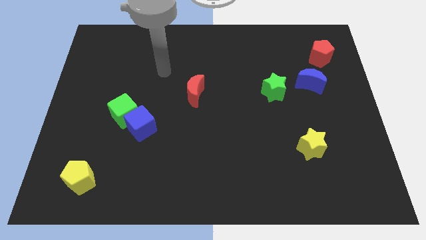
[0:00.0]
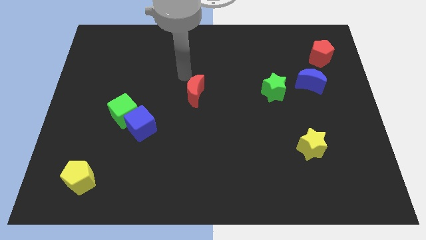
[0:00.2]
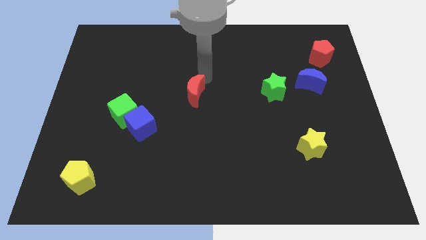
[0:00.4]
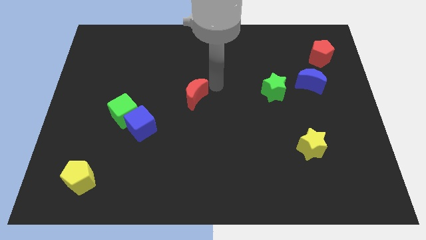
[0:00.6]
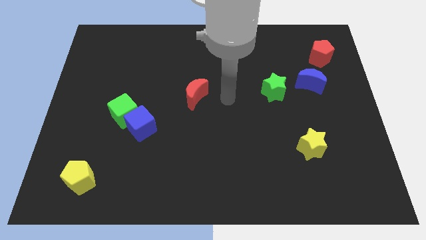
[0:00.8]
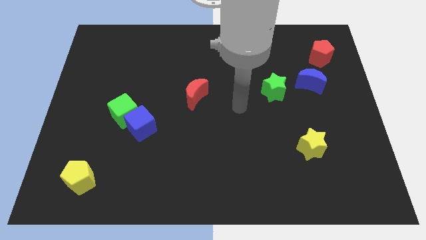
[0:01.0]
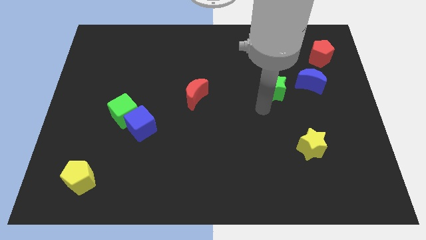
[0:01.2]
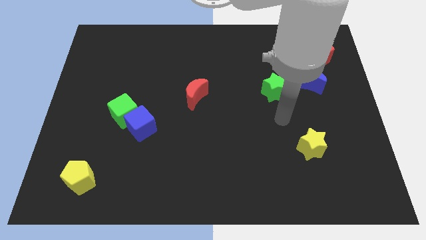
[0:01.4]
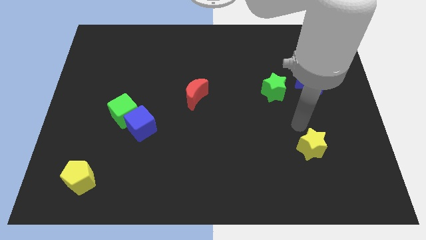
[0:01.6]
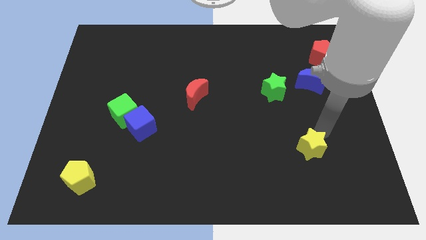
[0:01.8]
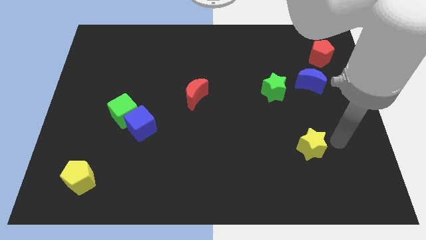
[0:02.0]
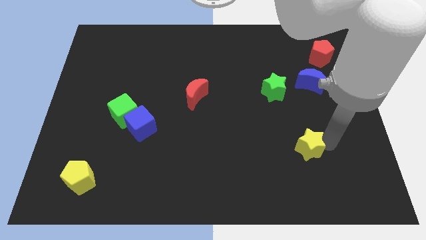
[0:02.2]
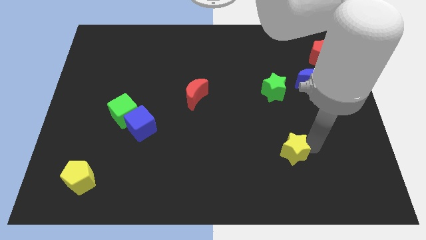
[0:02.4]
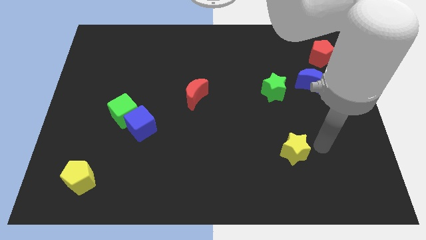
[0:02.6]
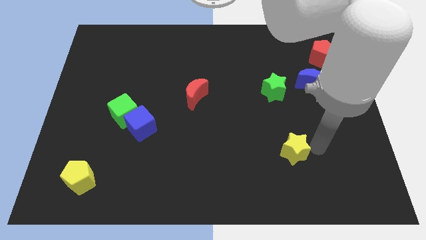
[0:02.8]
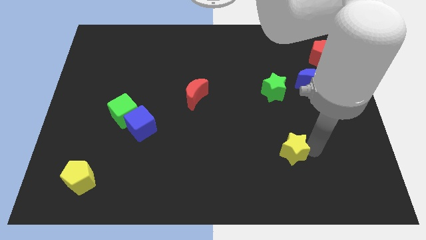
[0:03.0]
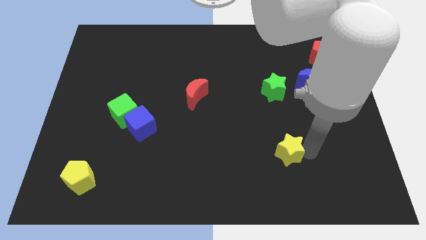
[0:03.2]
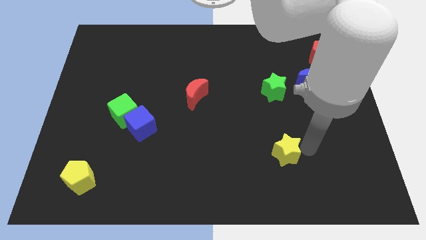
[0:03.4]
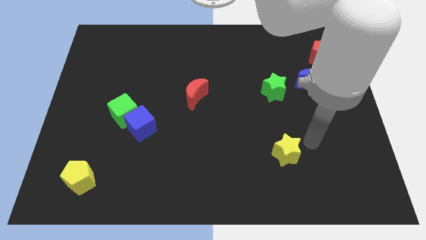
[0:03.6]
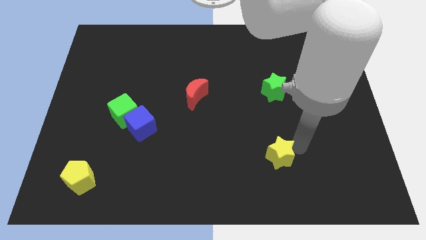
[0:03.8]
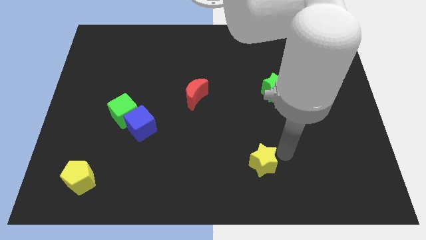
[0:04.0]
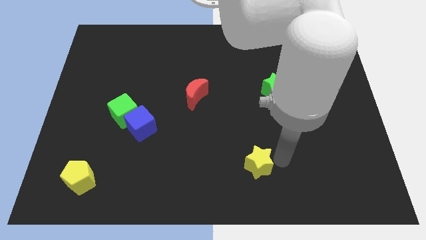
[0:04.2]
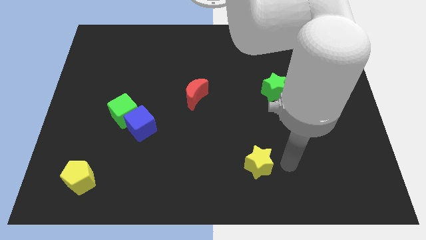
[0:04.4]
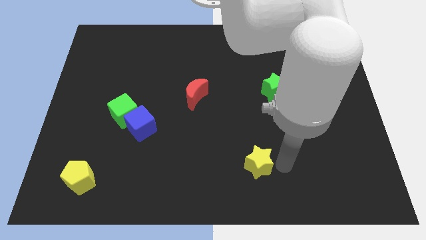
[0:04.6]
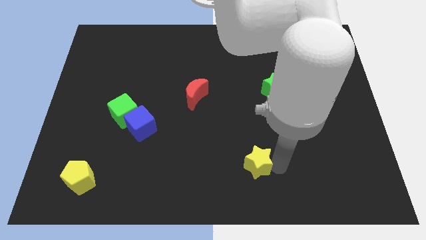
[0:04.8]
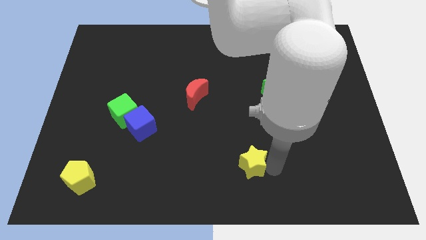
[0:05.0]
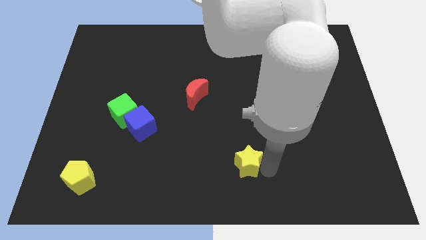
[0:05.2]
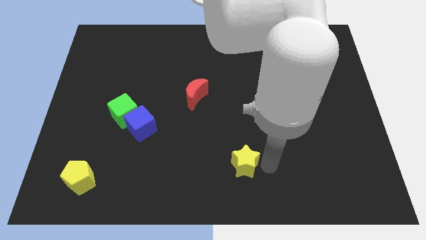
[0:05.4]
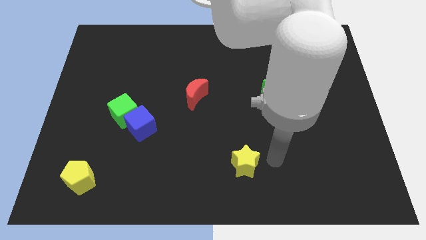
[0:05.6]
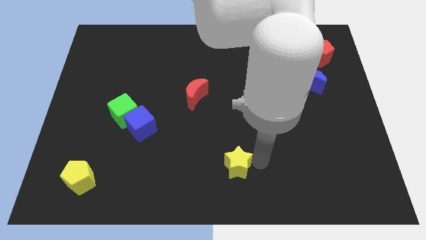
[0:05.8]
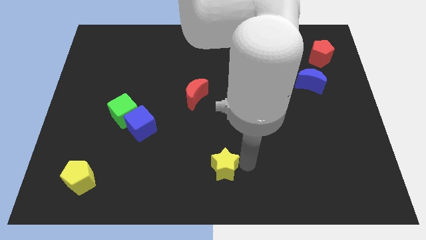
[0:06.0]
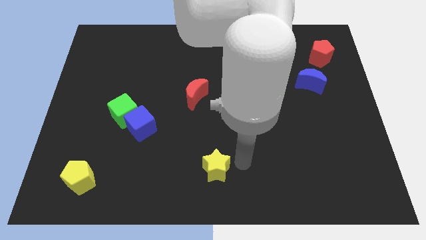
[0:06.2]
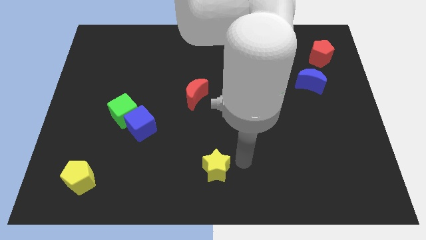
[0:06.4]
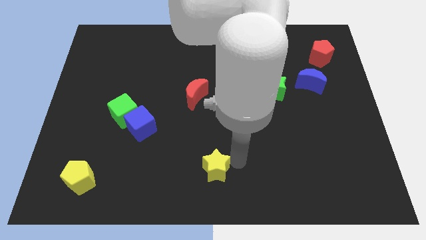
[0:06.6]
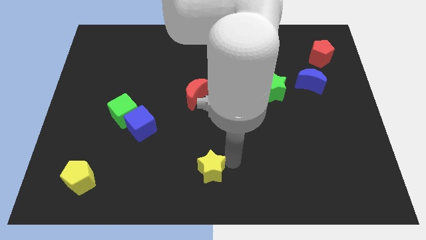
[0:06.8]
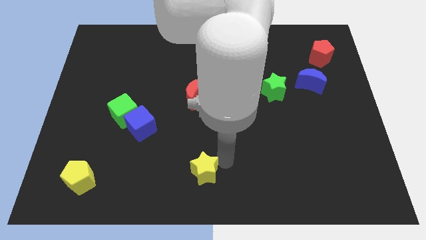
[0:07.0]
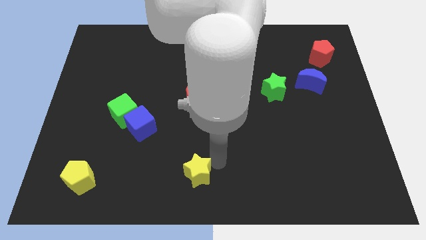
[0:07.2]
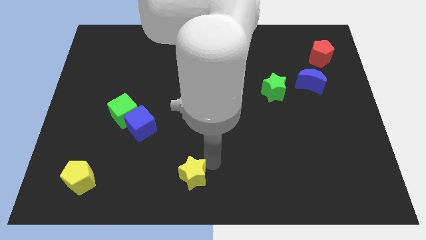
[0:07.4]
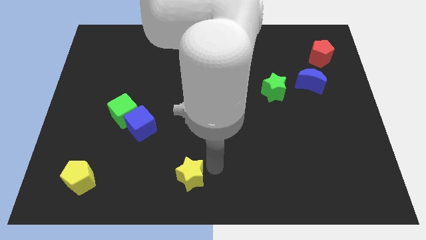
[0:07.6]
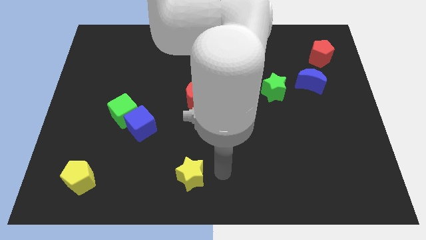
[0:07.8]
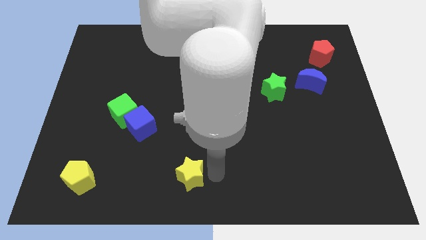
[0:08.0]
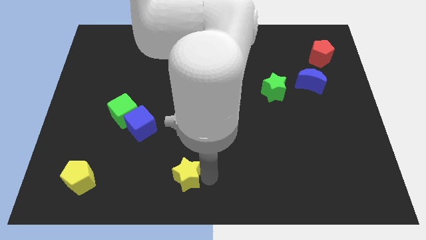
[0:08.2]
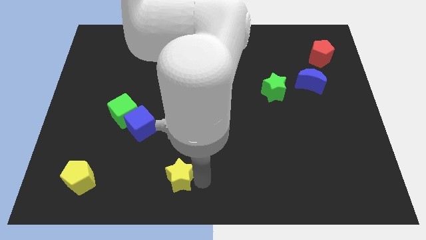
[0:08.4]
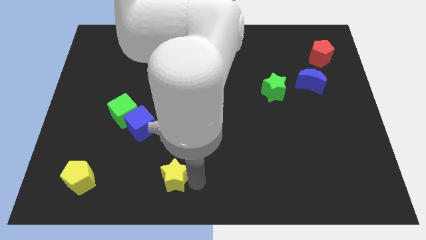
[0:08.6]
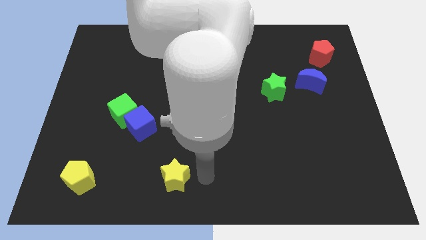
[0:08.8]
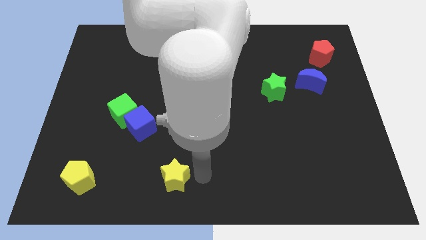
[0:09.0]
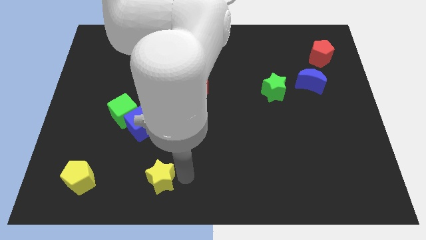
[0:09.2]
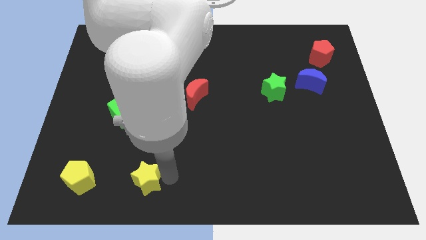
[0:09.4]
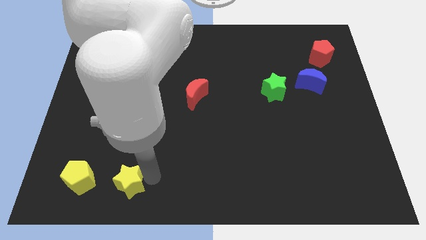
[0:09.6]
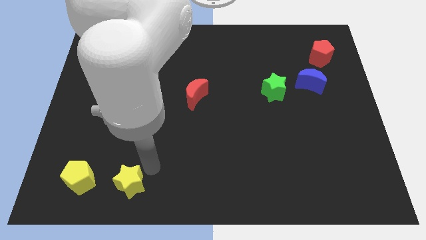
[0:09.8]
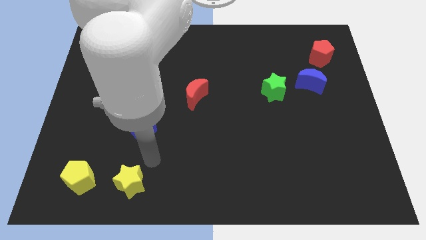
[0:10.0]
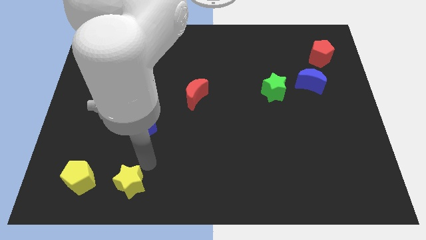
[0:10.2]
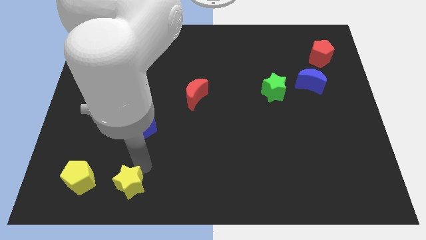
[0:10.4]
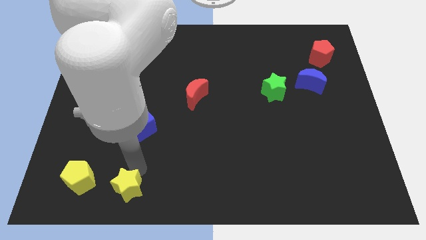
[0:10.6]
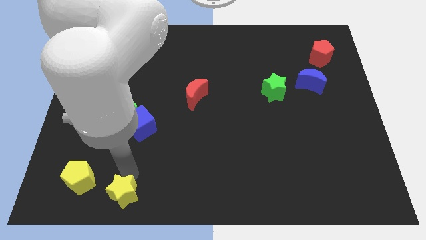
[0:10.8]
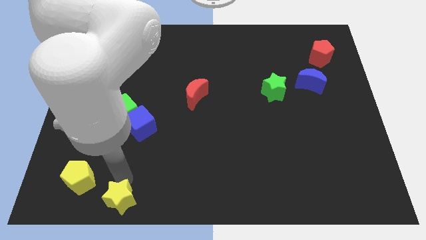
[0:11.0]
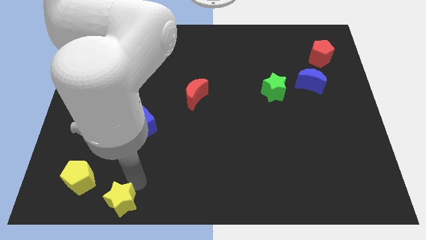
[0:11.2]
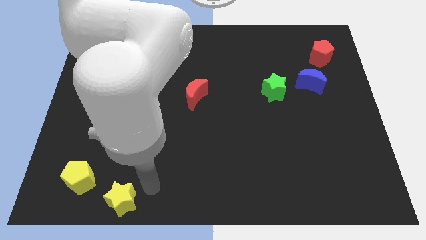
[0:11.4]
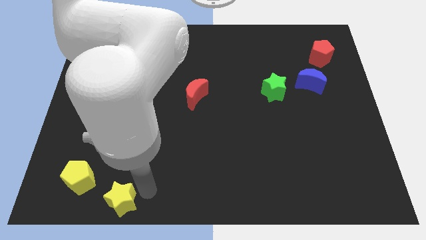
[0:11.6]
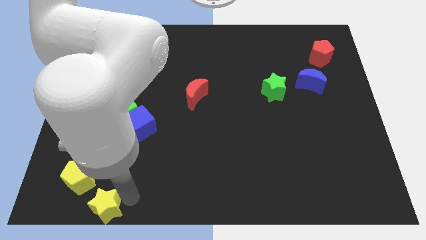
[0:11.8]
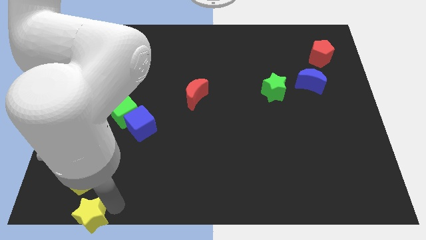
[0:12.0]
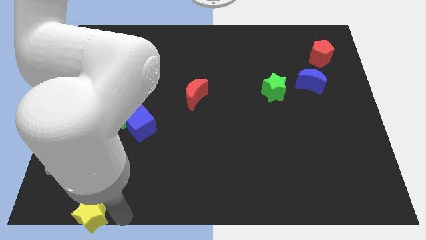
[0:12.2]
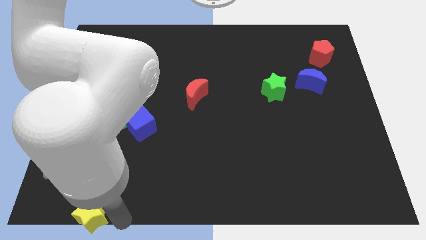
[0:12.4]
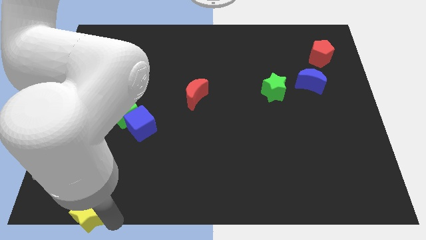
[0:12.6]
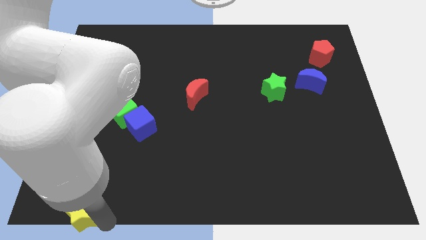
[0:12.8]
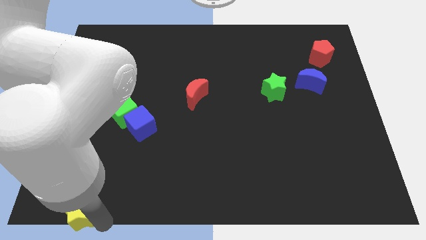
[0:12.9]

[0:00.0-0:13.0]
move the yellow star to the bottom left of the board
